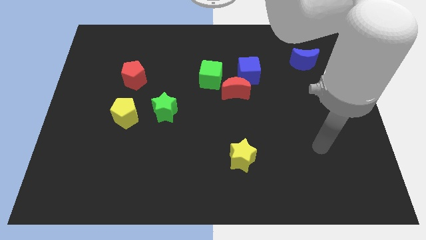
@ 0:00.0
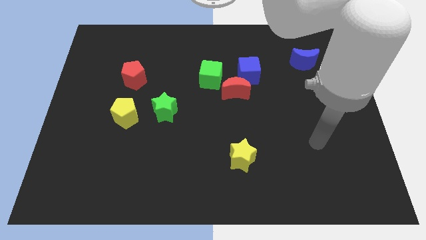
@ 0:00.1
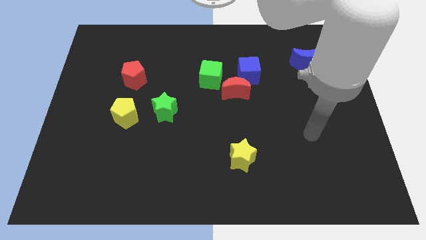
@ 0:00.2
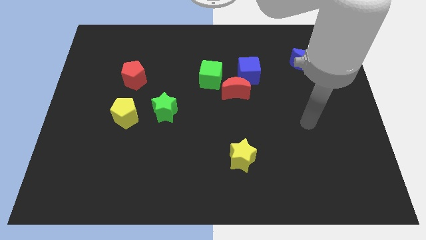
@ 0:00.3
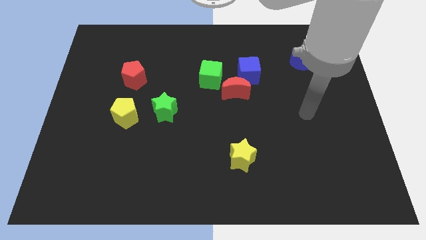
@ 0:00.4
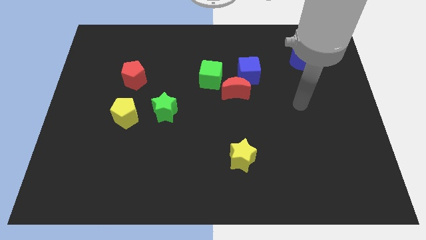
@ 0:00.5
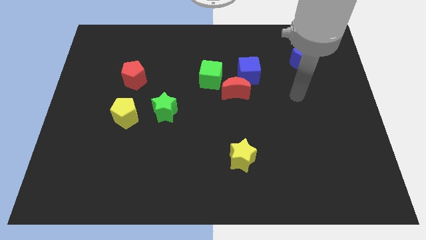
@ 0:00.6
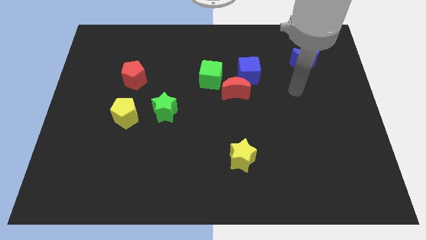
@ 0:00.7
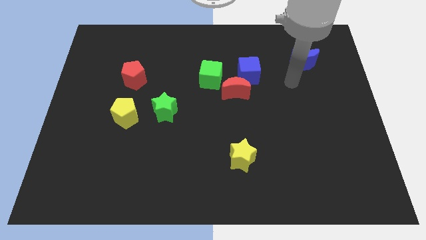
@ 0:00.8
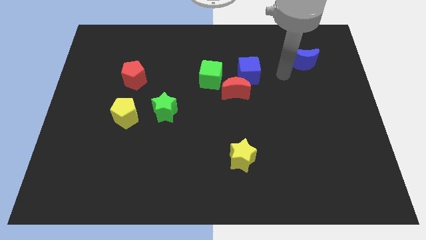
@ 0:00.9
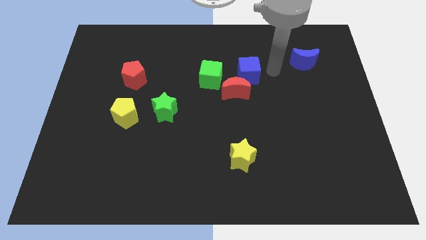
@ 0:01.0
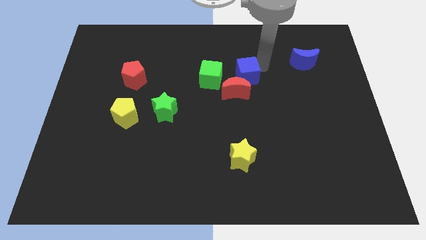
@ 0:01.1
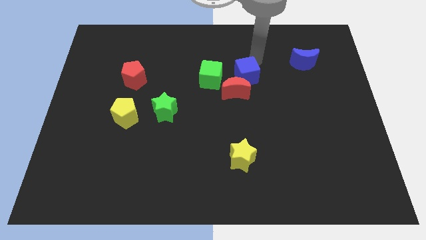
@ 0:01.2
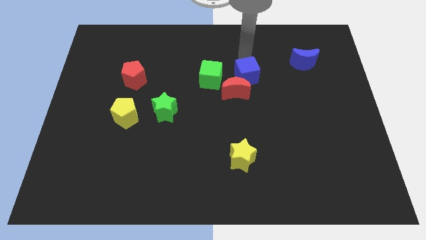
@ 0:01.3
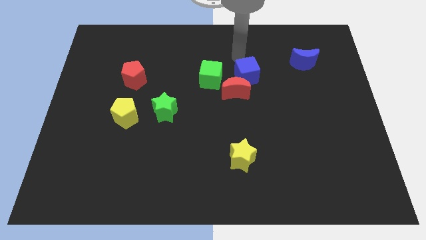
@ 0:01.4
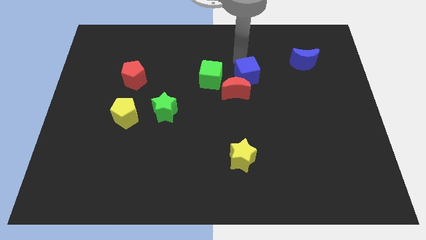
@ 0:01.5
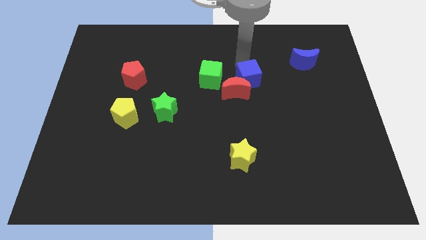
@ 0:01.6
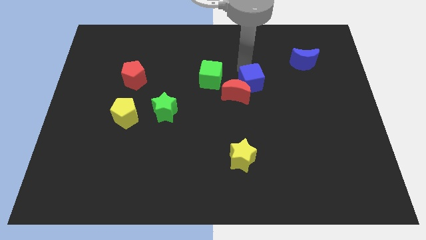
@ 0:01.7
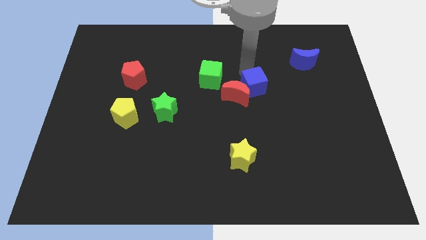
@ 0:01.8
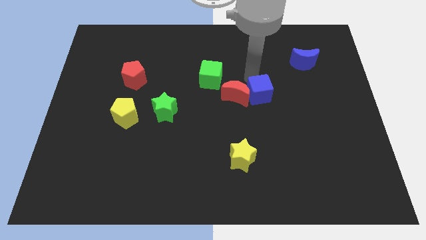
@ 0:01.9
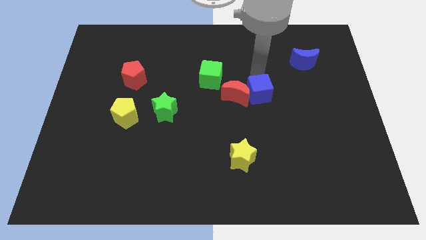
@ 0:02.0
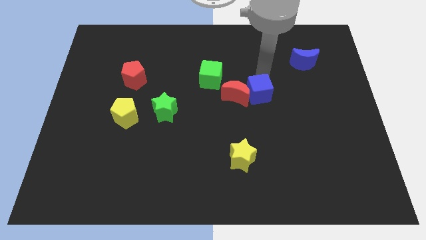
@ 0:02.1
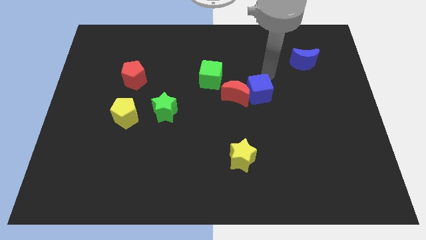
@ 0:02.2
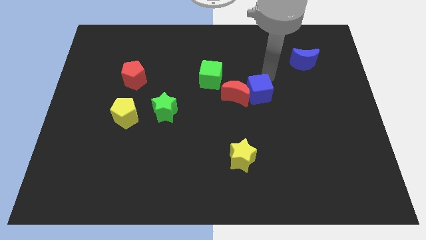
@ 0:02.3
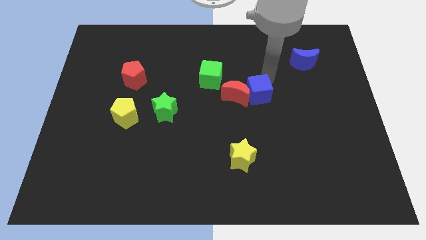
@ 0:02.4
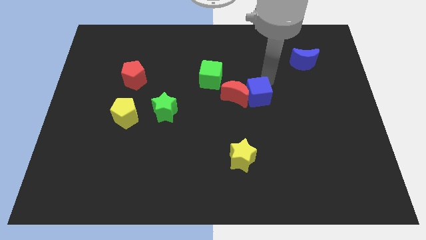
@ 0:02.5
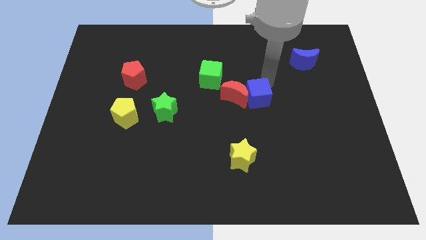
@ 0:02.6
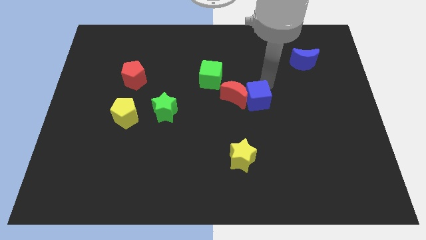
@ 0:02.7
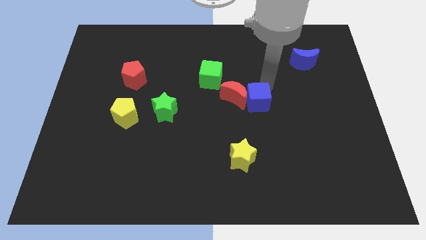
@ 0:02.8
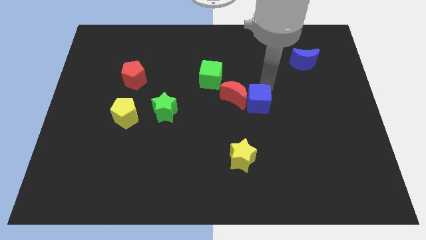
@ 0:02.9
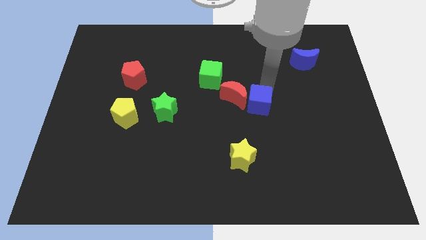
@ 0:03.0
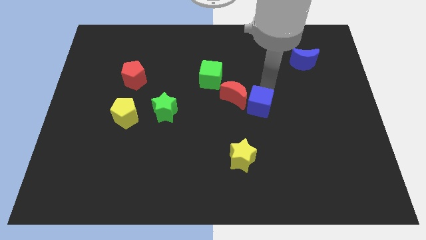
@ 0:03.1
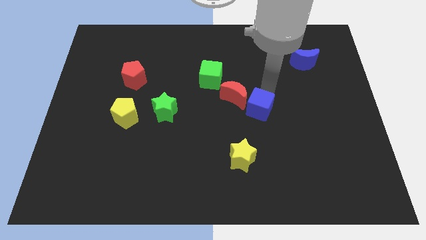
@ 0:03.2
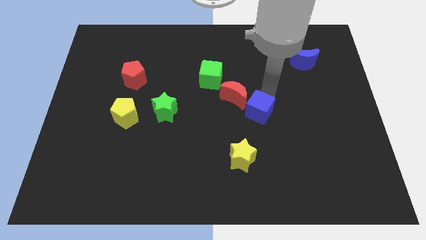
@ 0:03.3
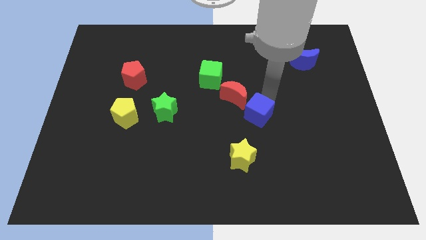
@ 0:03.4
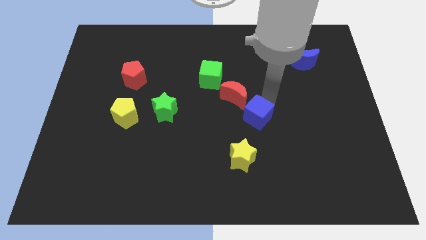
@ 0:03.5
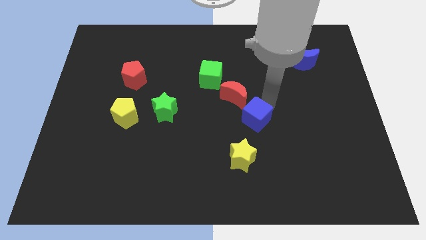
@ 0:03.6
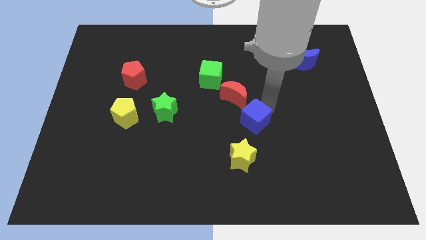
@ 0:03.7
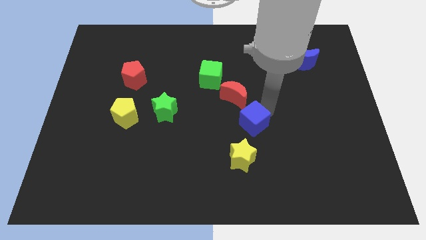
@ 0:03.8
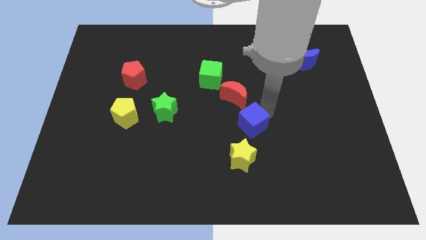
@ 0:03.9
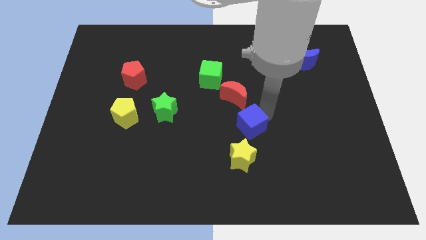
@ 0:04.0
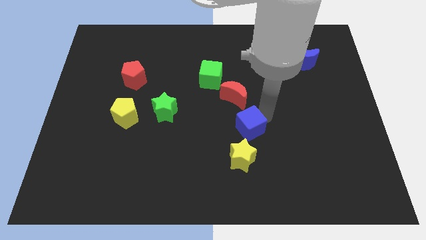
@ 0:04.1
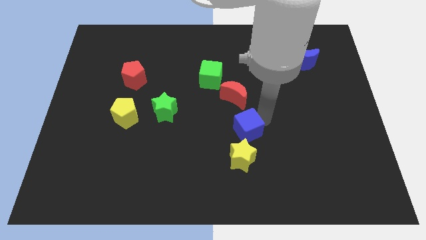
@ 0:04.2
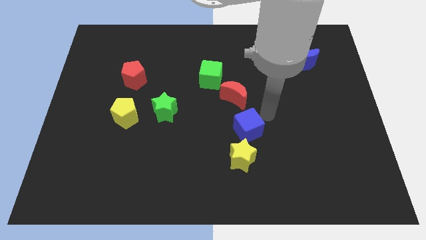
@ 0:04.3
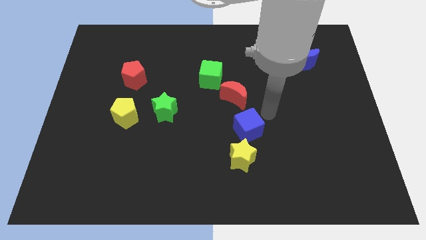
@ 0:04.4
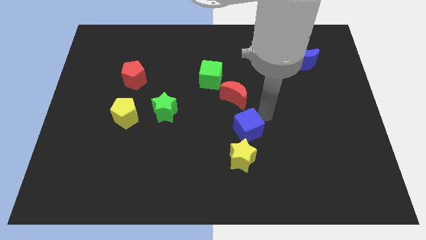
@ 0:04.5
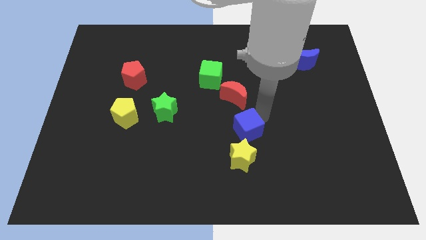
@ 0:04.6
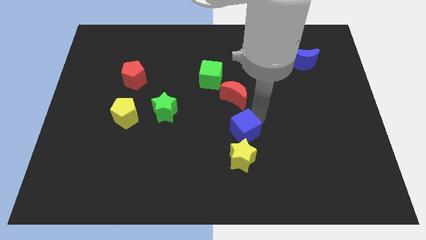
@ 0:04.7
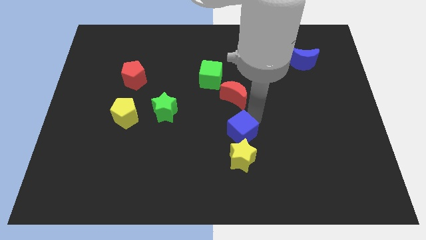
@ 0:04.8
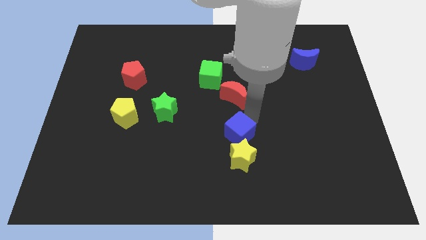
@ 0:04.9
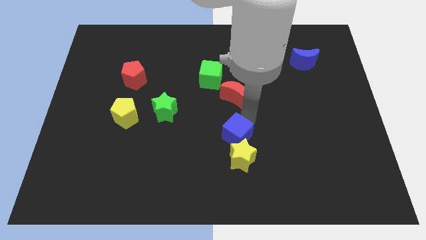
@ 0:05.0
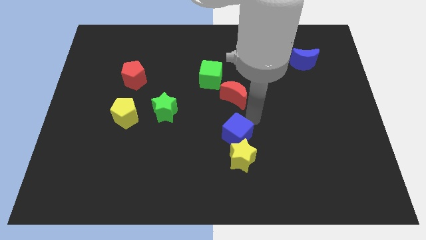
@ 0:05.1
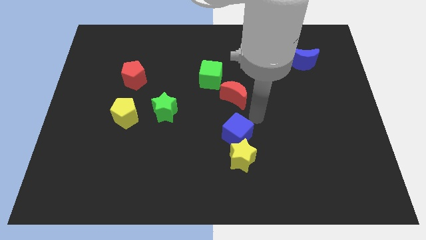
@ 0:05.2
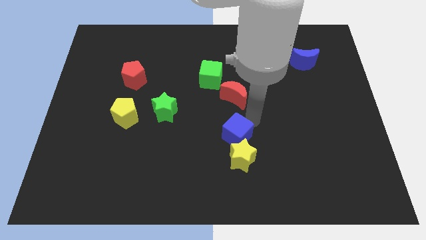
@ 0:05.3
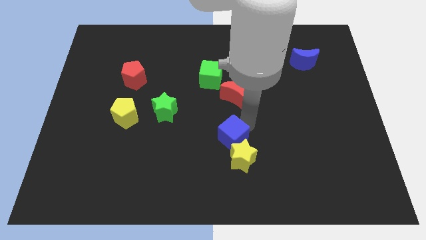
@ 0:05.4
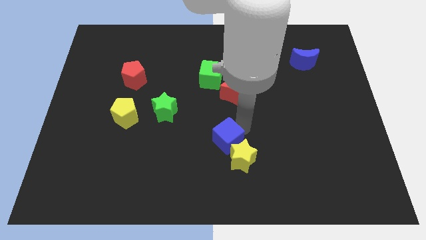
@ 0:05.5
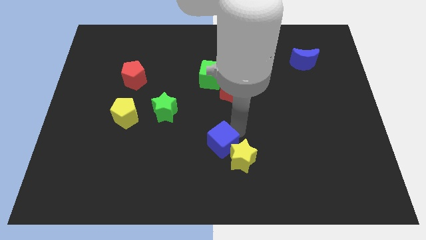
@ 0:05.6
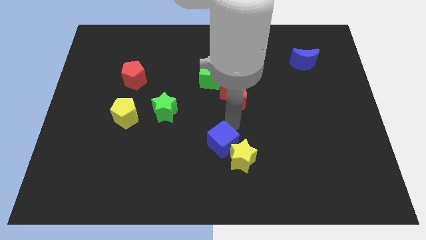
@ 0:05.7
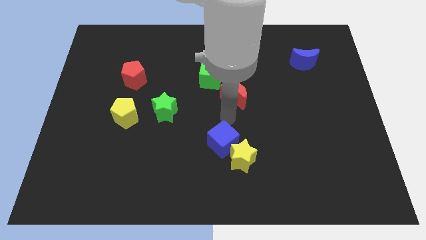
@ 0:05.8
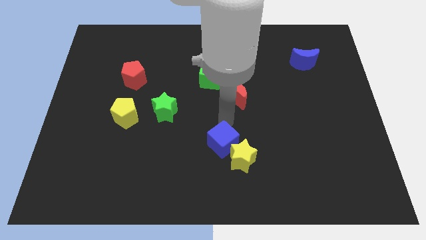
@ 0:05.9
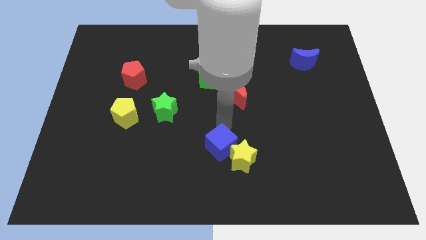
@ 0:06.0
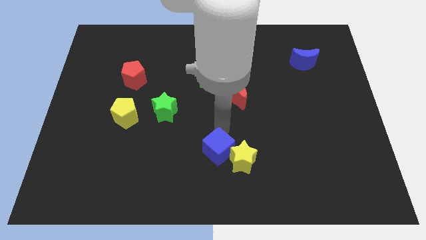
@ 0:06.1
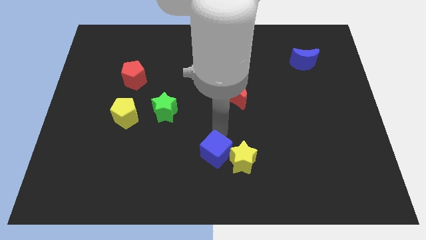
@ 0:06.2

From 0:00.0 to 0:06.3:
slide the blue cube to the bottom
